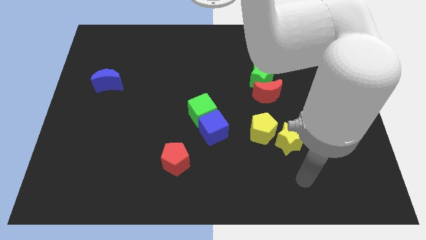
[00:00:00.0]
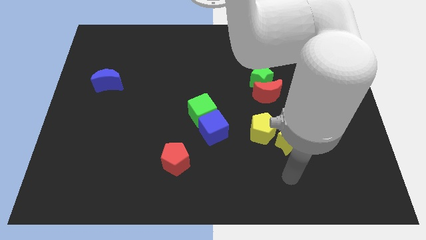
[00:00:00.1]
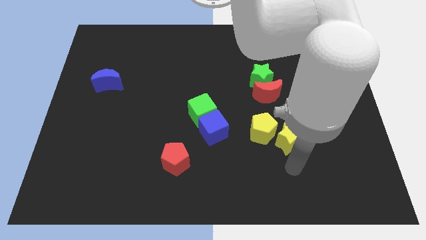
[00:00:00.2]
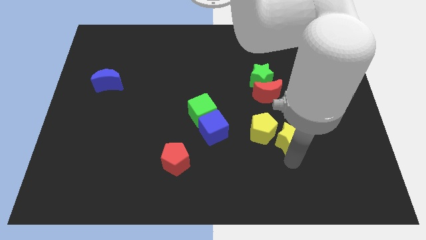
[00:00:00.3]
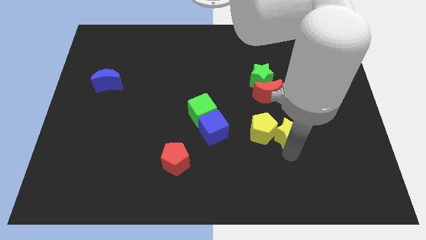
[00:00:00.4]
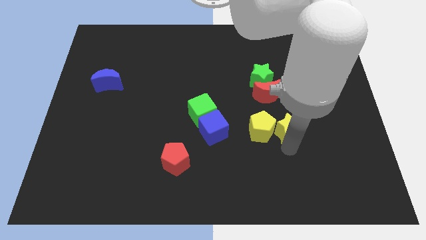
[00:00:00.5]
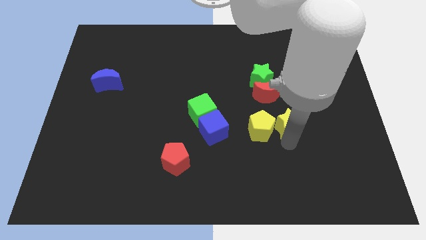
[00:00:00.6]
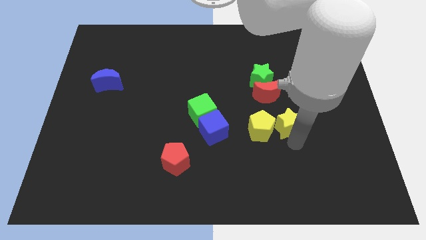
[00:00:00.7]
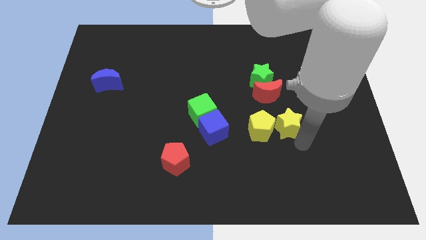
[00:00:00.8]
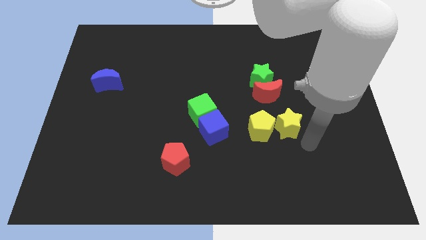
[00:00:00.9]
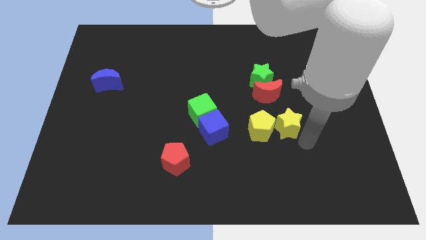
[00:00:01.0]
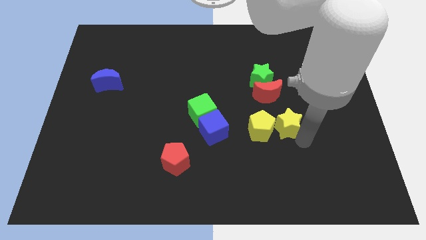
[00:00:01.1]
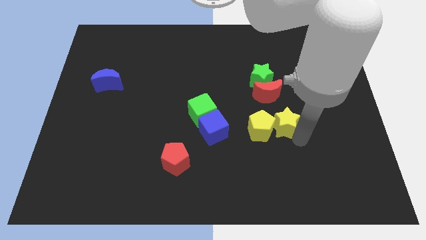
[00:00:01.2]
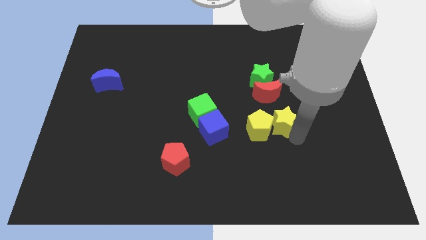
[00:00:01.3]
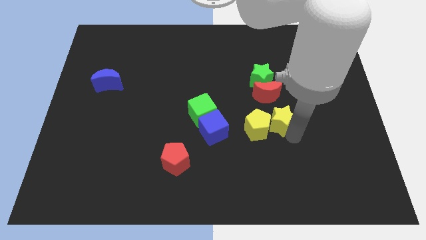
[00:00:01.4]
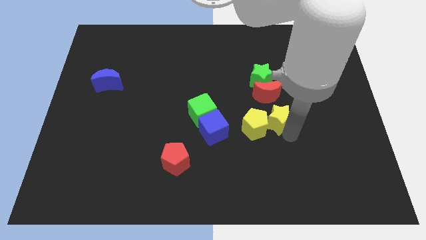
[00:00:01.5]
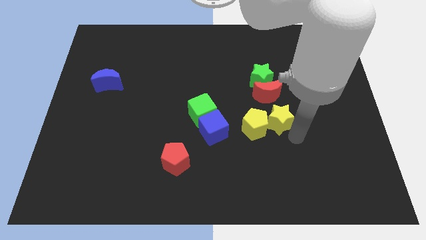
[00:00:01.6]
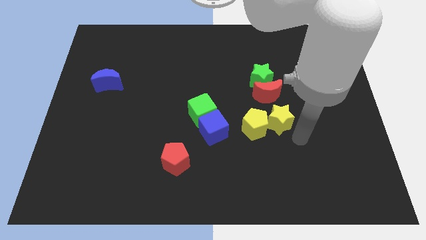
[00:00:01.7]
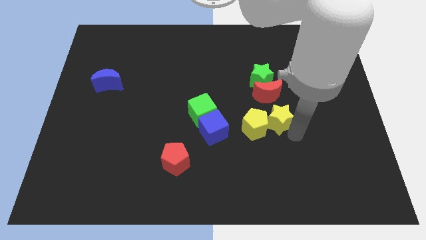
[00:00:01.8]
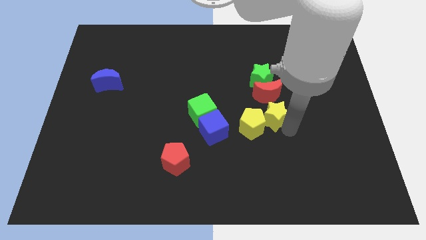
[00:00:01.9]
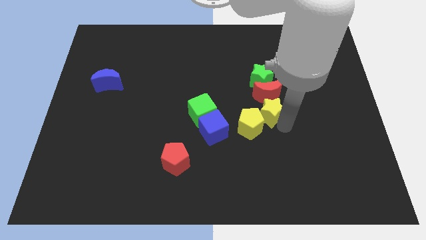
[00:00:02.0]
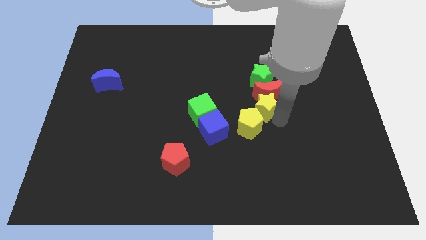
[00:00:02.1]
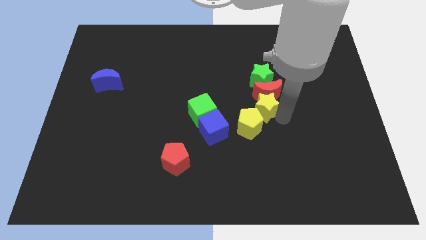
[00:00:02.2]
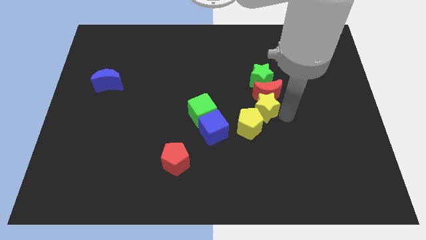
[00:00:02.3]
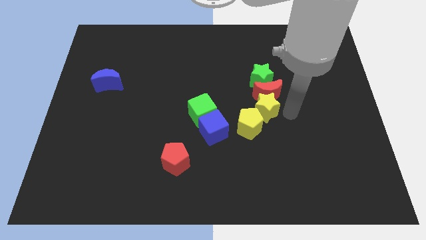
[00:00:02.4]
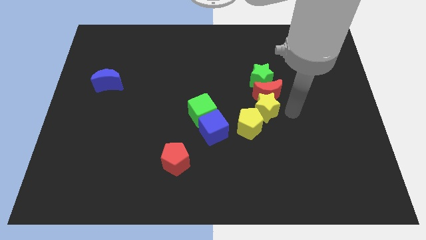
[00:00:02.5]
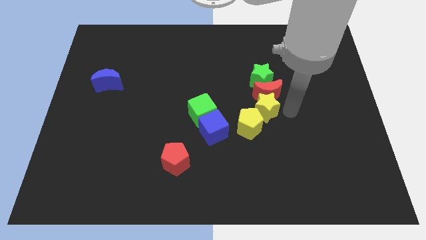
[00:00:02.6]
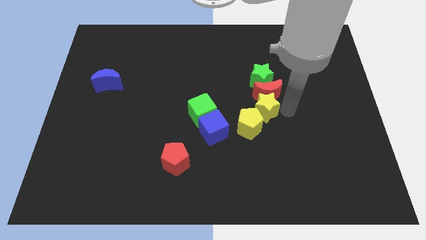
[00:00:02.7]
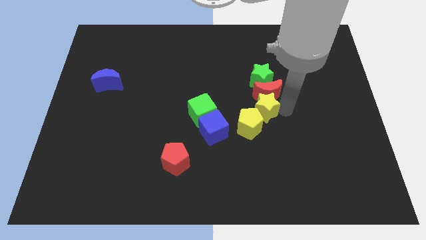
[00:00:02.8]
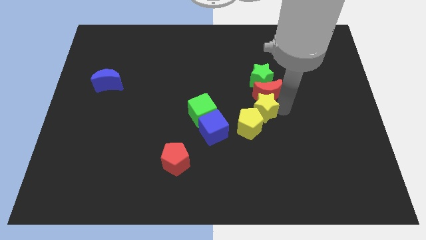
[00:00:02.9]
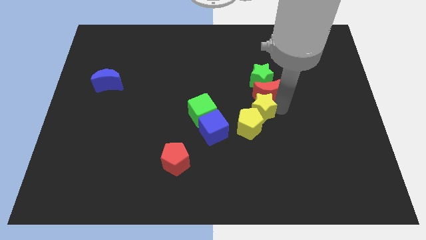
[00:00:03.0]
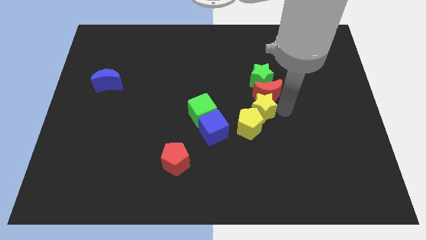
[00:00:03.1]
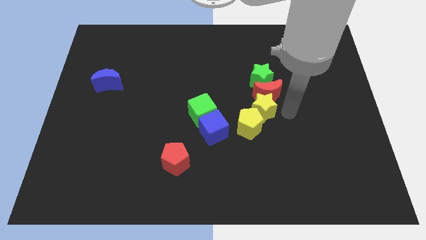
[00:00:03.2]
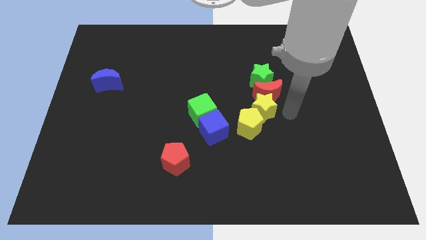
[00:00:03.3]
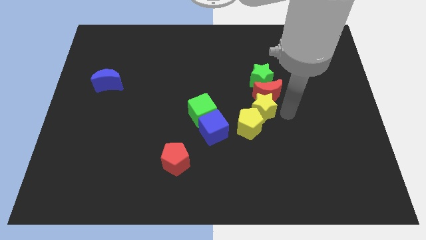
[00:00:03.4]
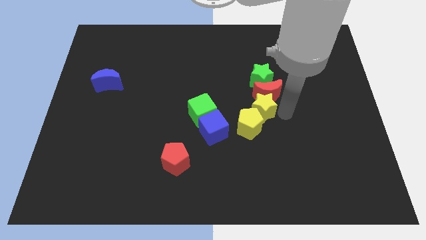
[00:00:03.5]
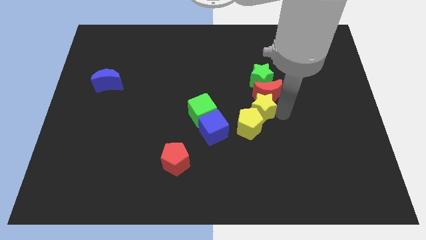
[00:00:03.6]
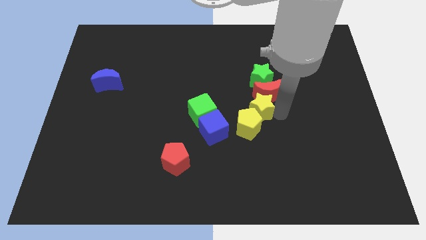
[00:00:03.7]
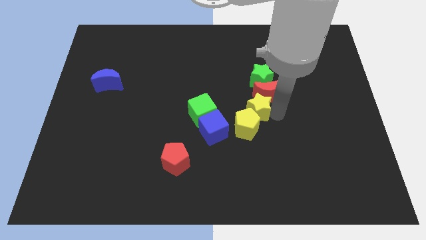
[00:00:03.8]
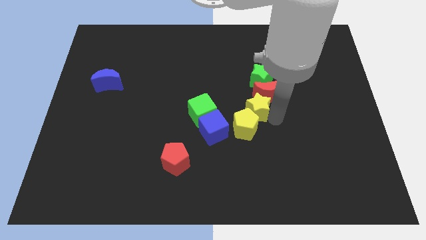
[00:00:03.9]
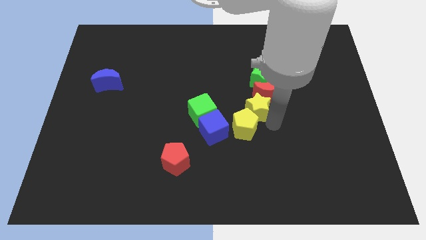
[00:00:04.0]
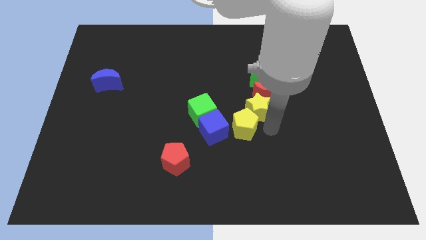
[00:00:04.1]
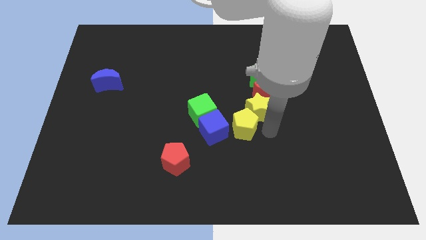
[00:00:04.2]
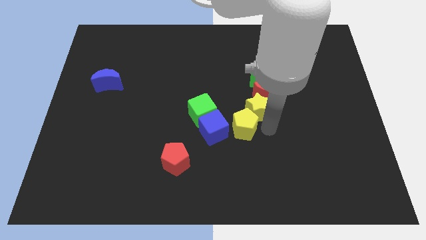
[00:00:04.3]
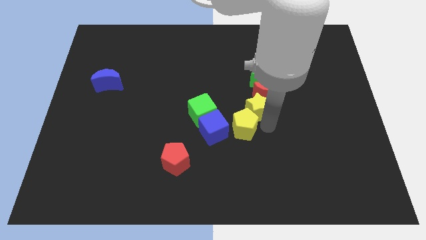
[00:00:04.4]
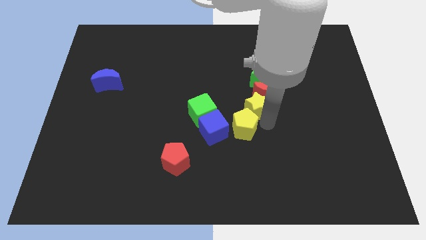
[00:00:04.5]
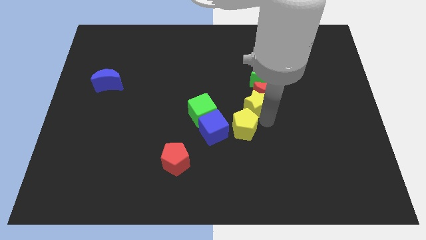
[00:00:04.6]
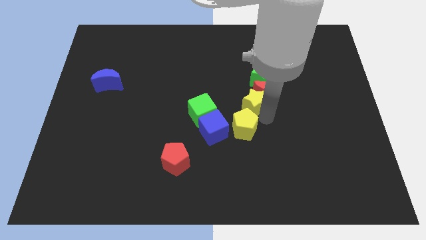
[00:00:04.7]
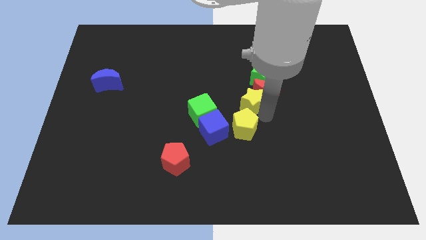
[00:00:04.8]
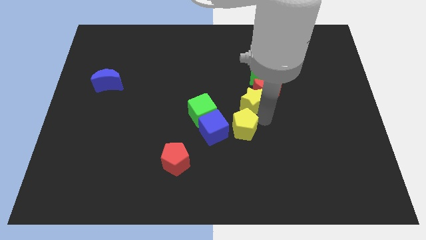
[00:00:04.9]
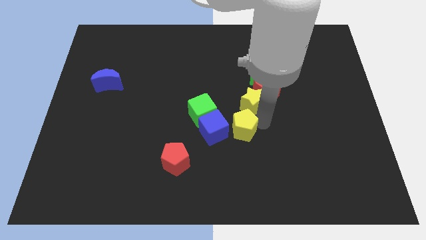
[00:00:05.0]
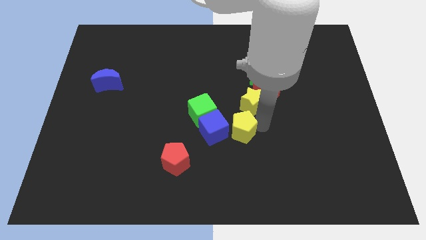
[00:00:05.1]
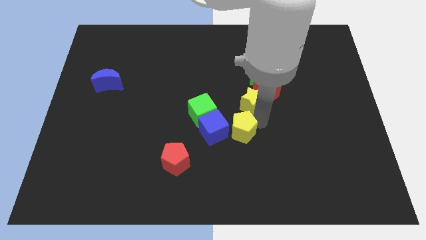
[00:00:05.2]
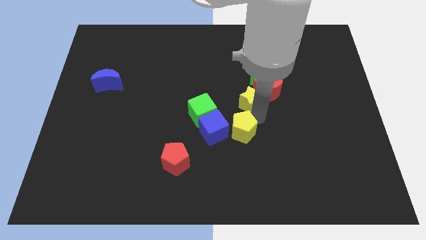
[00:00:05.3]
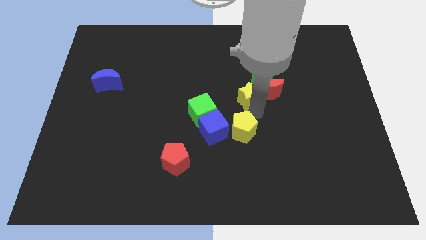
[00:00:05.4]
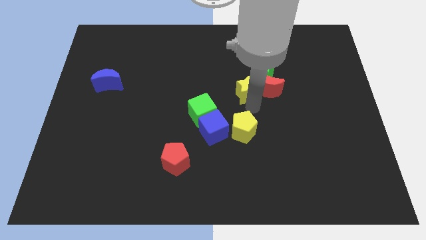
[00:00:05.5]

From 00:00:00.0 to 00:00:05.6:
move the yellow star to the top left of the red moon

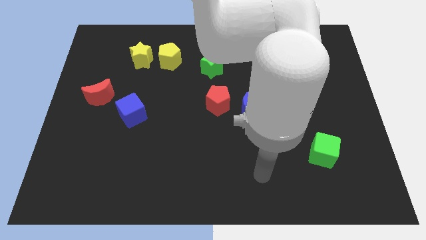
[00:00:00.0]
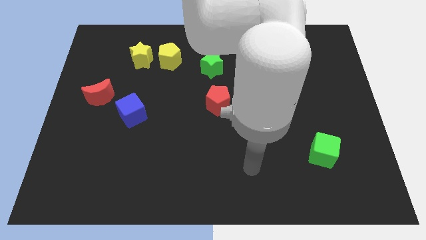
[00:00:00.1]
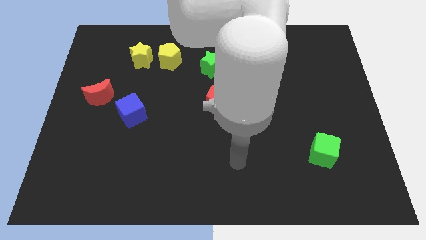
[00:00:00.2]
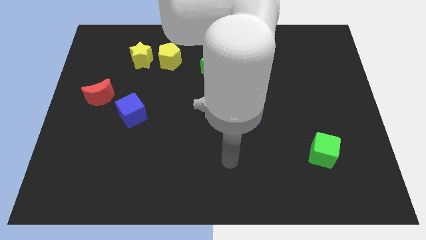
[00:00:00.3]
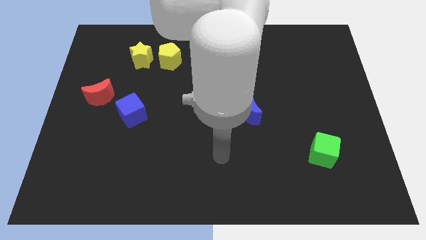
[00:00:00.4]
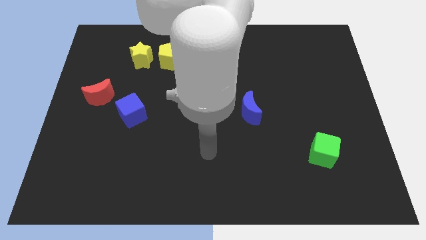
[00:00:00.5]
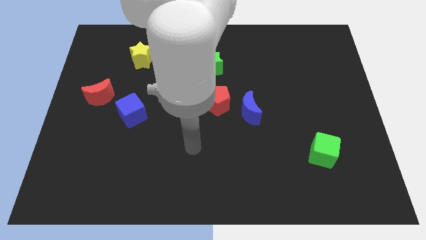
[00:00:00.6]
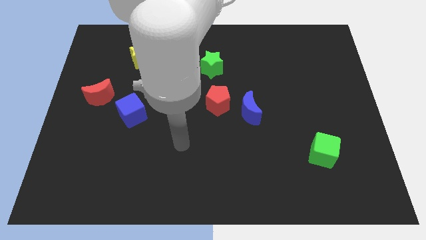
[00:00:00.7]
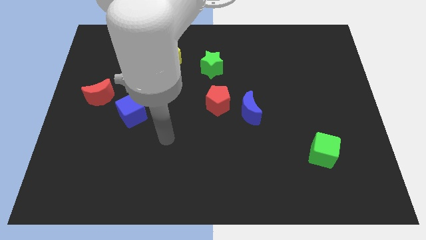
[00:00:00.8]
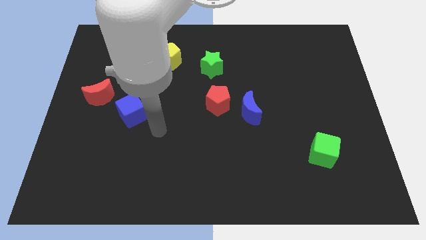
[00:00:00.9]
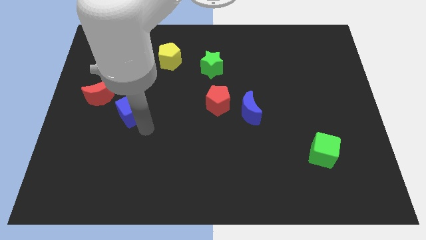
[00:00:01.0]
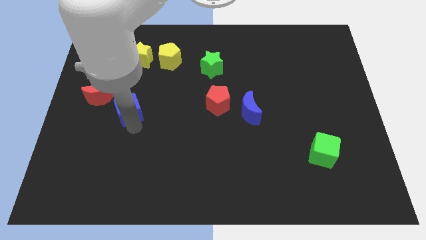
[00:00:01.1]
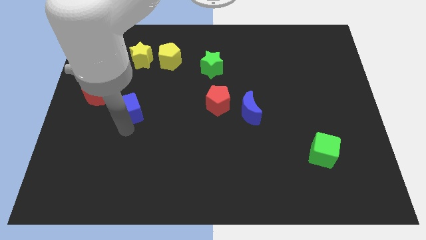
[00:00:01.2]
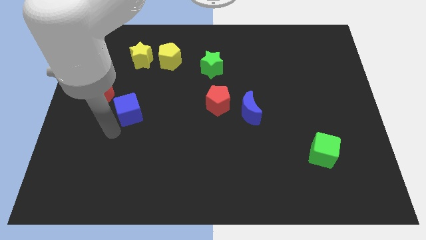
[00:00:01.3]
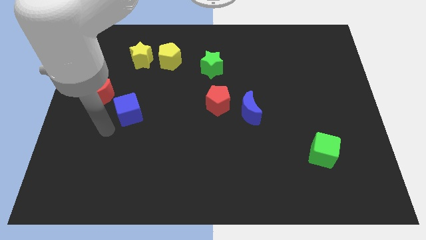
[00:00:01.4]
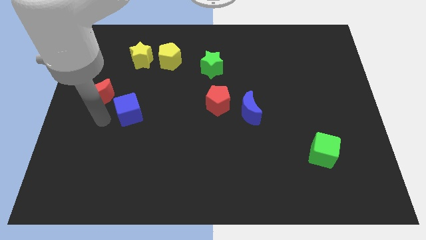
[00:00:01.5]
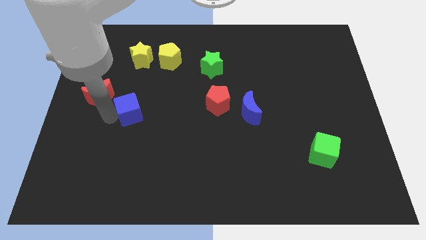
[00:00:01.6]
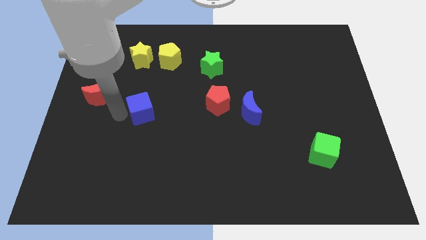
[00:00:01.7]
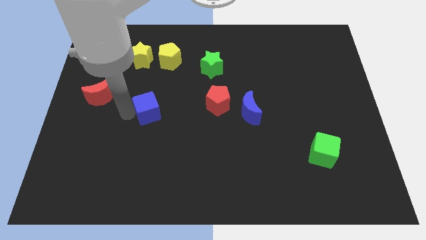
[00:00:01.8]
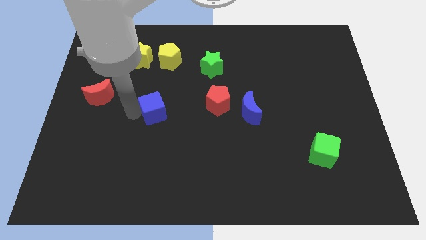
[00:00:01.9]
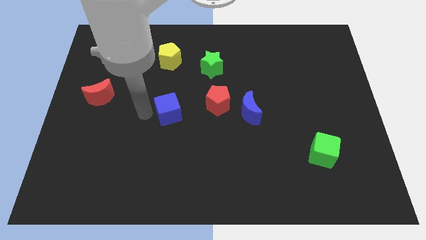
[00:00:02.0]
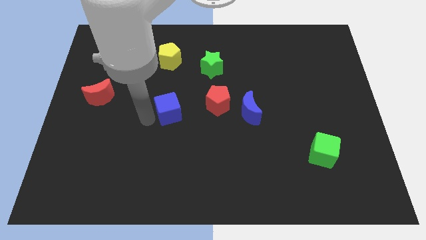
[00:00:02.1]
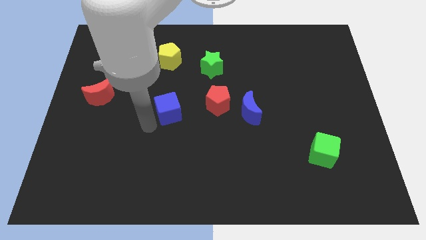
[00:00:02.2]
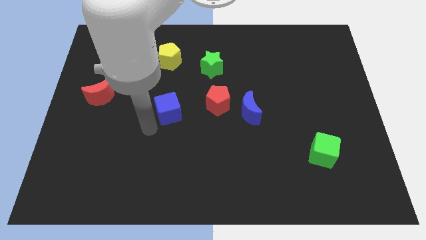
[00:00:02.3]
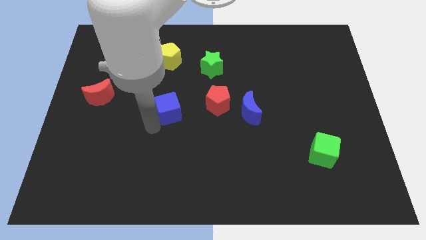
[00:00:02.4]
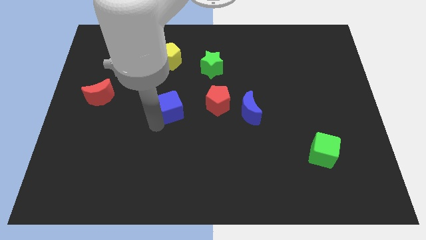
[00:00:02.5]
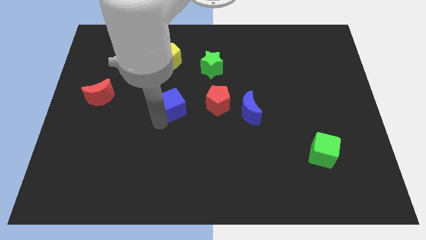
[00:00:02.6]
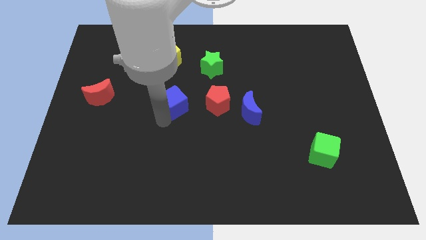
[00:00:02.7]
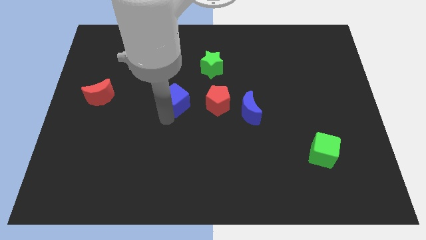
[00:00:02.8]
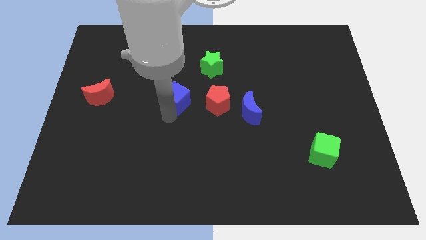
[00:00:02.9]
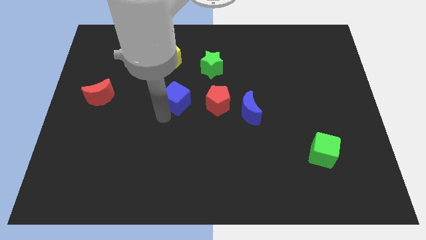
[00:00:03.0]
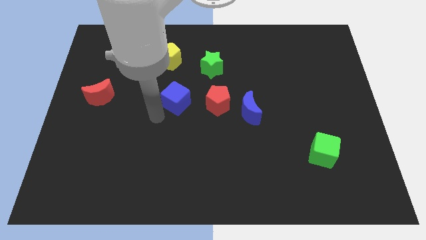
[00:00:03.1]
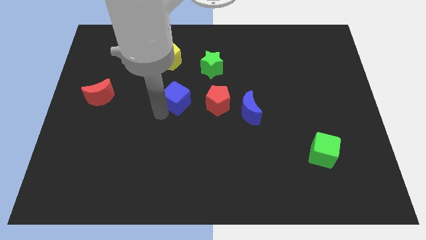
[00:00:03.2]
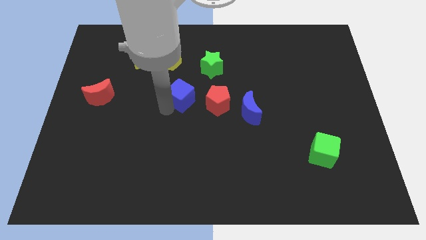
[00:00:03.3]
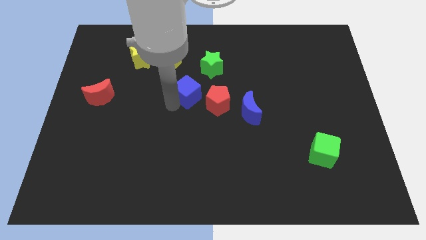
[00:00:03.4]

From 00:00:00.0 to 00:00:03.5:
put the blue cube to the top left side of the red pentagon
